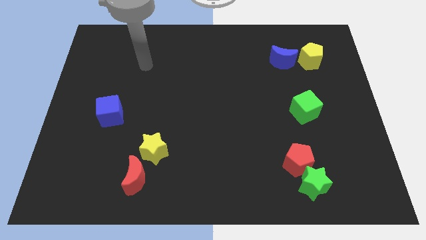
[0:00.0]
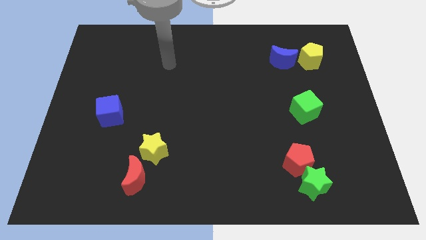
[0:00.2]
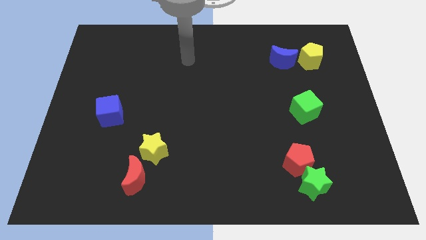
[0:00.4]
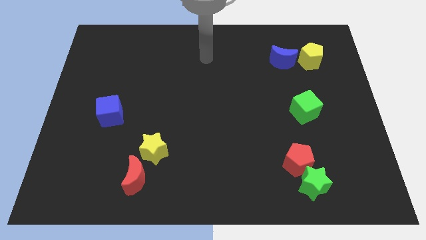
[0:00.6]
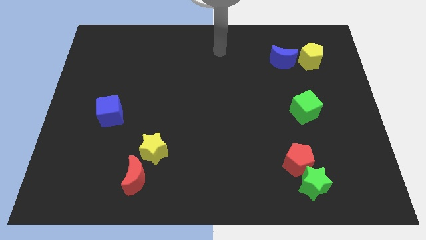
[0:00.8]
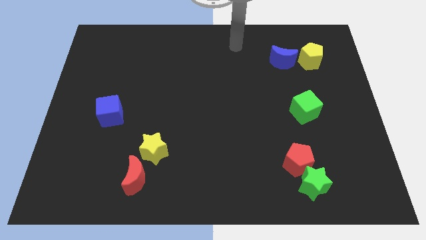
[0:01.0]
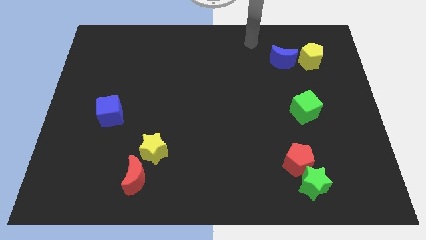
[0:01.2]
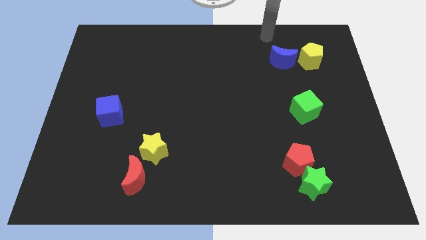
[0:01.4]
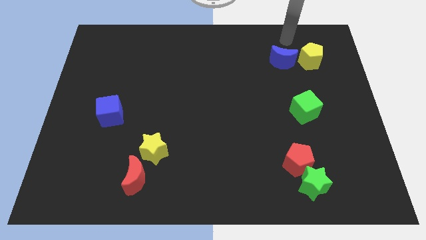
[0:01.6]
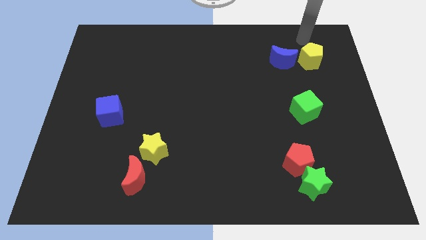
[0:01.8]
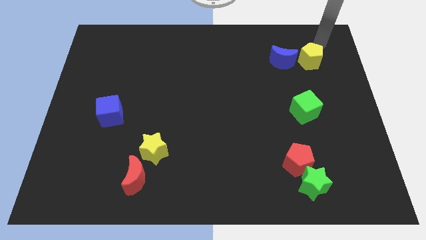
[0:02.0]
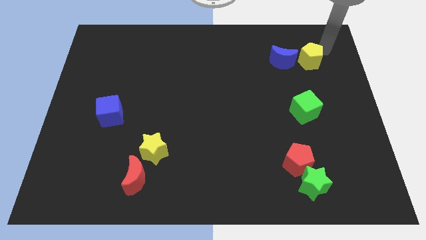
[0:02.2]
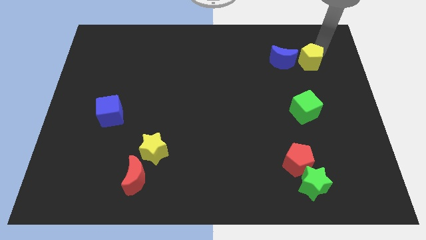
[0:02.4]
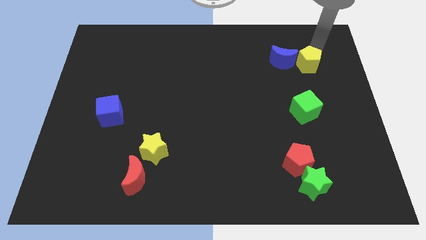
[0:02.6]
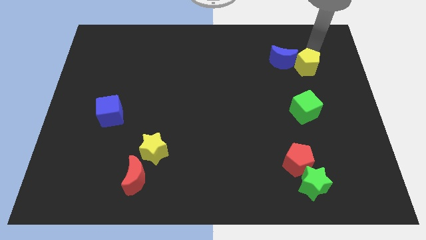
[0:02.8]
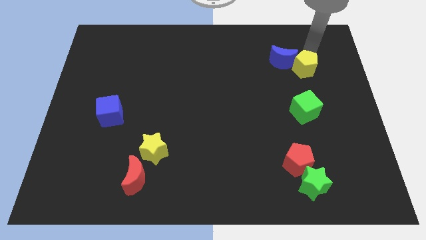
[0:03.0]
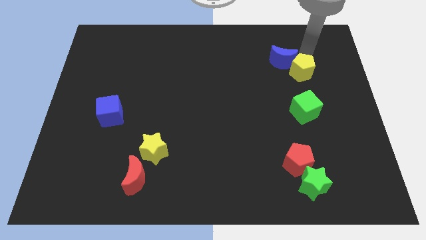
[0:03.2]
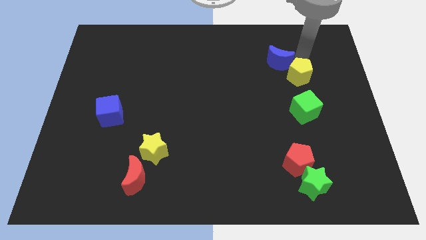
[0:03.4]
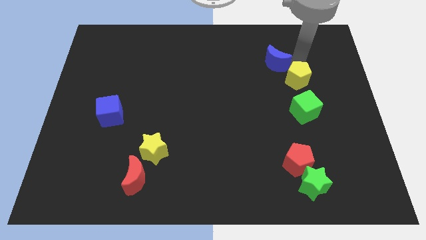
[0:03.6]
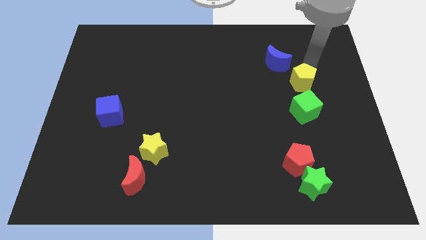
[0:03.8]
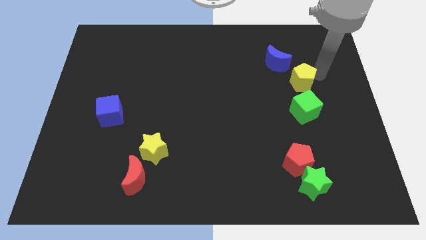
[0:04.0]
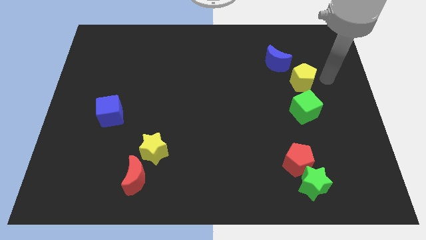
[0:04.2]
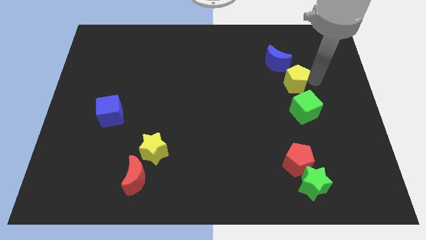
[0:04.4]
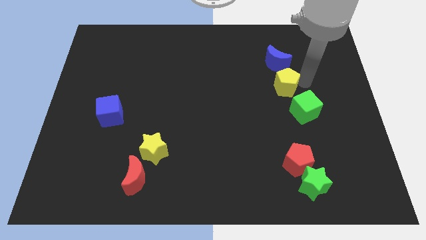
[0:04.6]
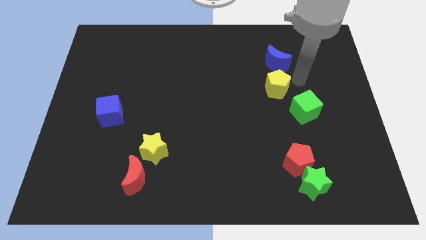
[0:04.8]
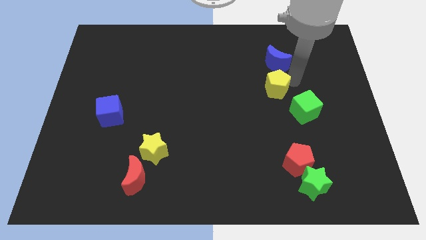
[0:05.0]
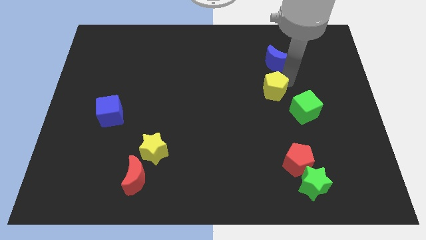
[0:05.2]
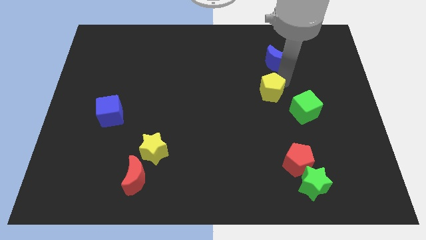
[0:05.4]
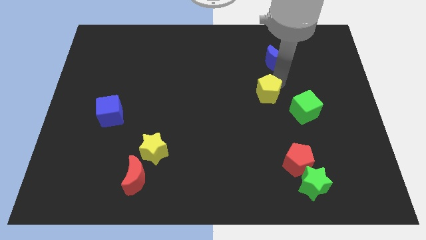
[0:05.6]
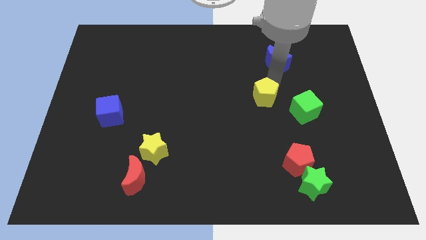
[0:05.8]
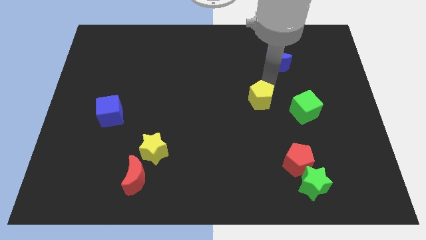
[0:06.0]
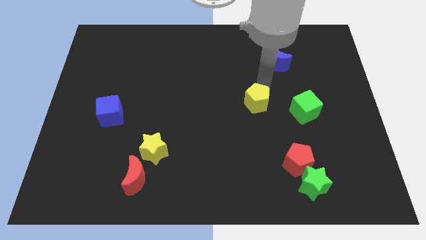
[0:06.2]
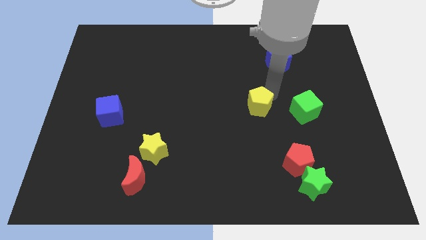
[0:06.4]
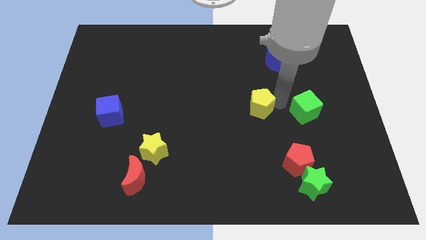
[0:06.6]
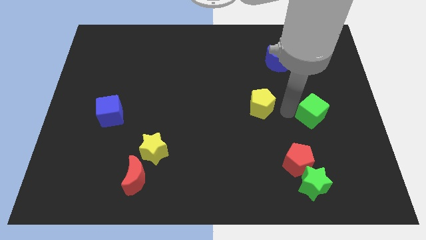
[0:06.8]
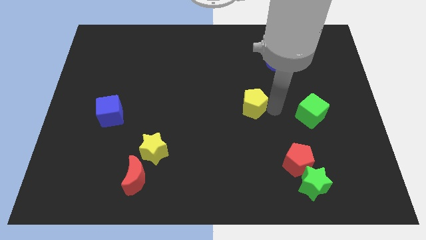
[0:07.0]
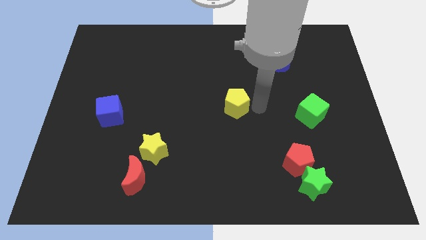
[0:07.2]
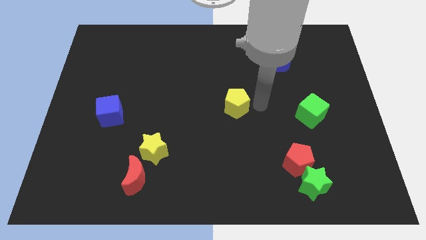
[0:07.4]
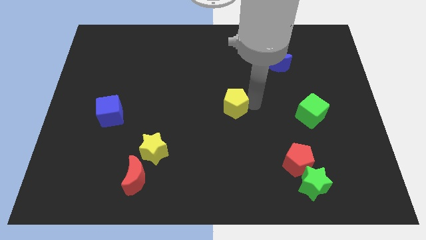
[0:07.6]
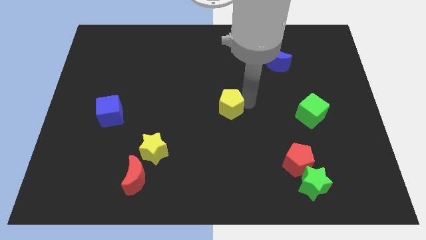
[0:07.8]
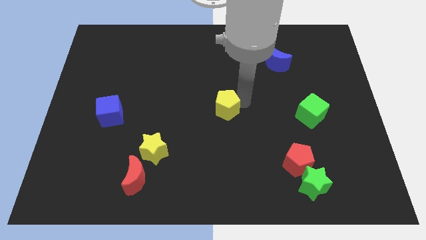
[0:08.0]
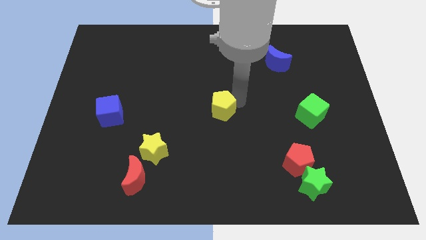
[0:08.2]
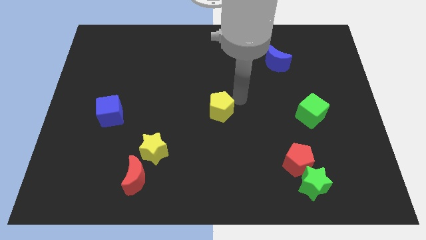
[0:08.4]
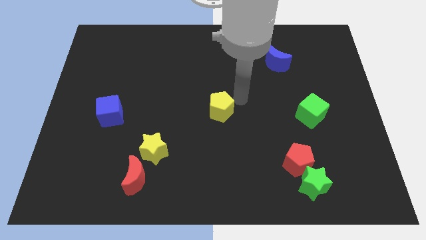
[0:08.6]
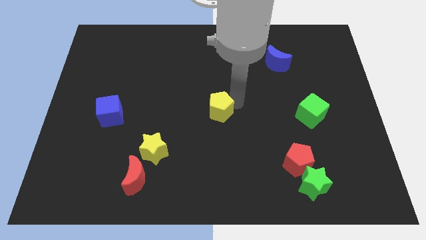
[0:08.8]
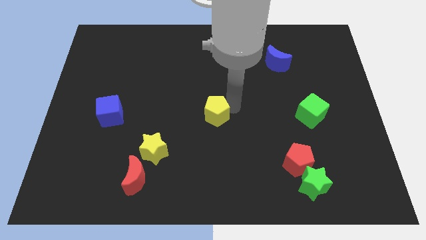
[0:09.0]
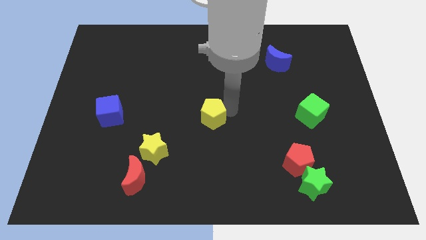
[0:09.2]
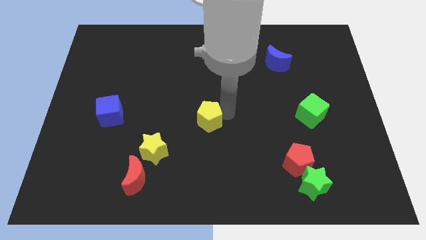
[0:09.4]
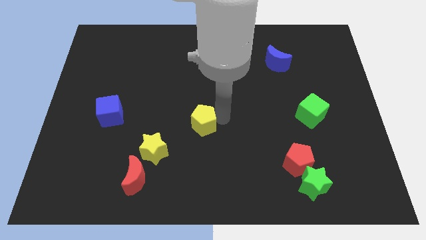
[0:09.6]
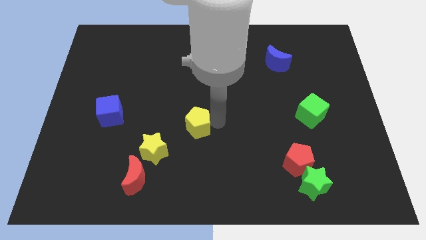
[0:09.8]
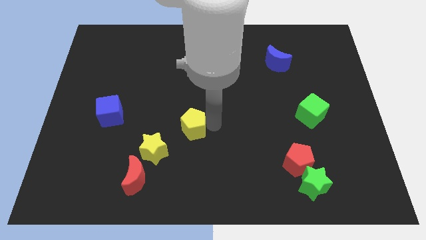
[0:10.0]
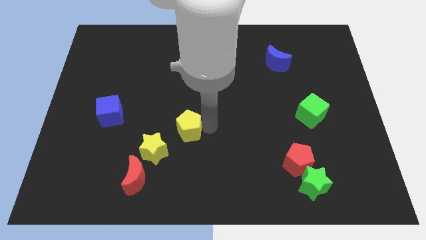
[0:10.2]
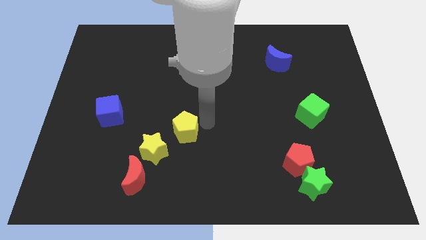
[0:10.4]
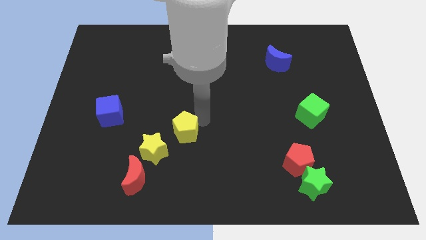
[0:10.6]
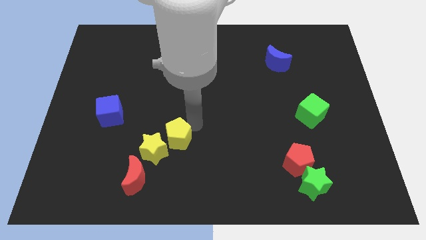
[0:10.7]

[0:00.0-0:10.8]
slide the yellow pentagon next to the yellow star

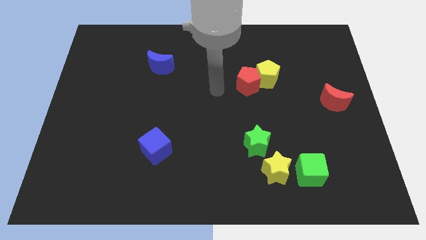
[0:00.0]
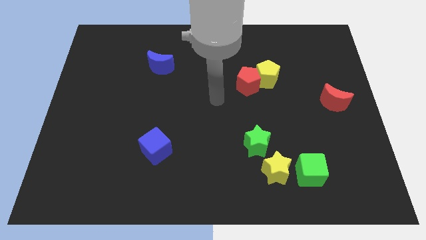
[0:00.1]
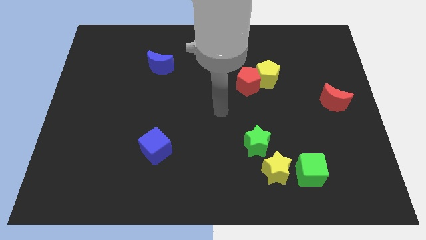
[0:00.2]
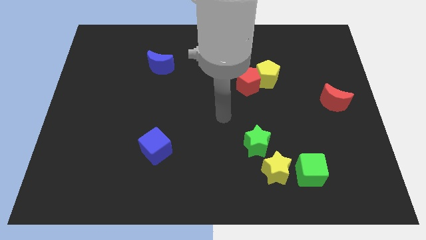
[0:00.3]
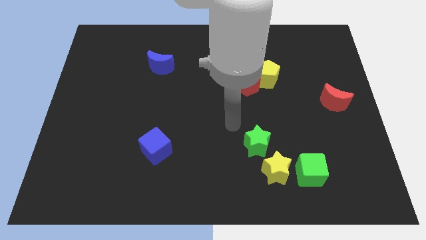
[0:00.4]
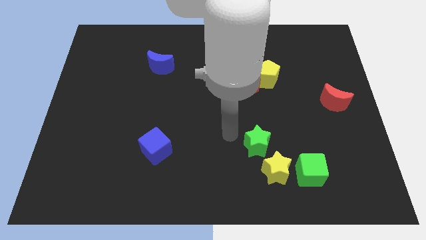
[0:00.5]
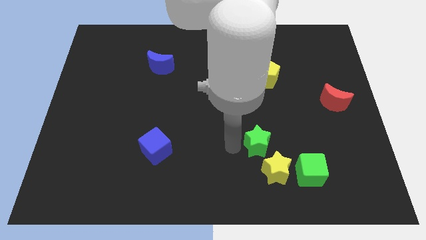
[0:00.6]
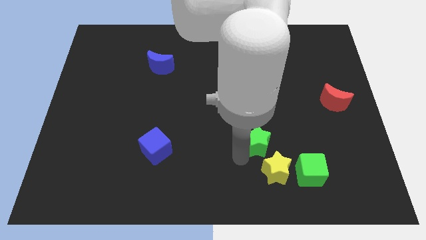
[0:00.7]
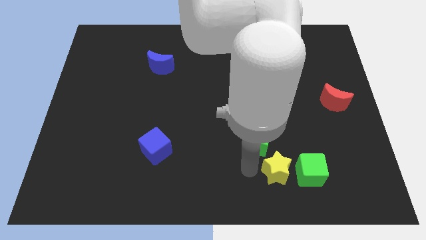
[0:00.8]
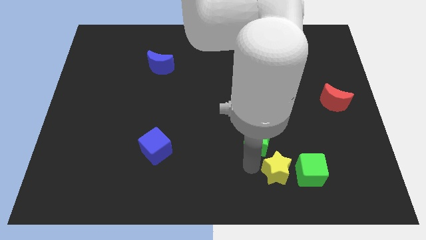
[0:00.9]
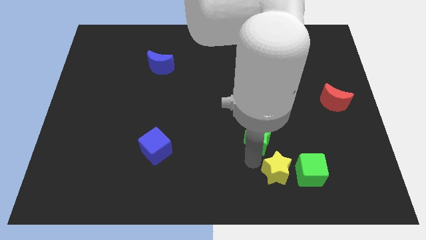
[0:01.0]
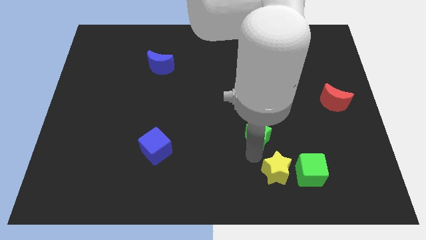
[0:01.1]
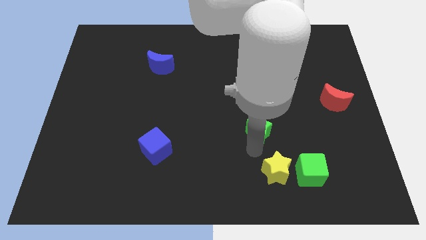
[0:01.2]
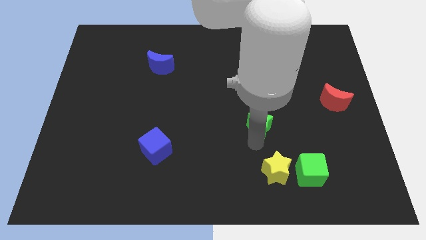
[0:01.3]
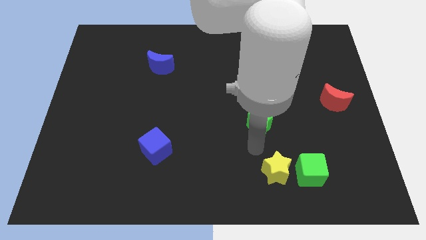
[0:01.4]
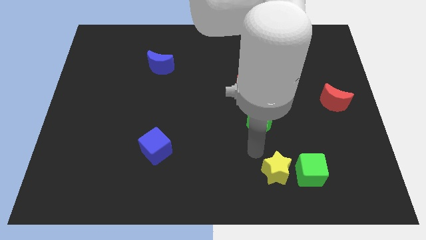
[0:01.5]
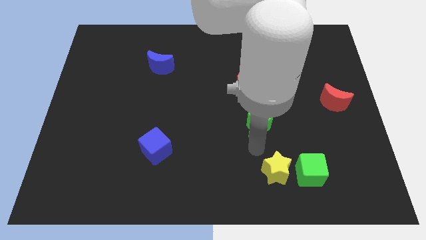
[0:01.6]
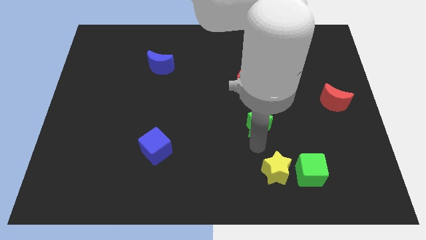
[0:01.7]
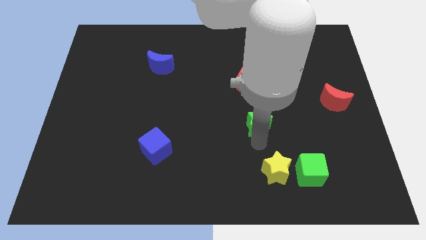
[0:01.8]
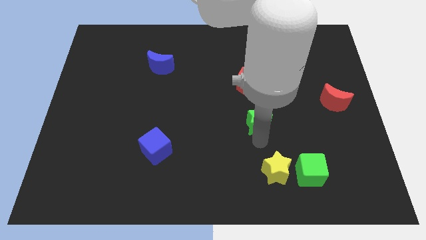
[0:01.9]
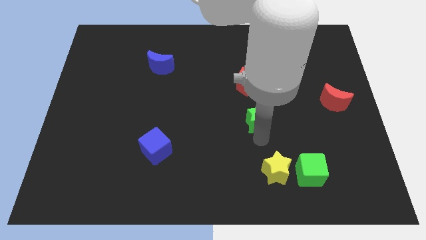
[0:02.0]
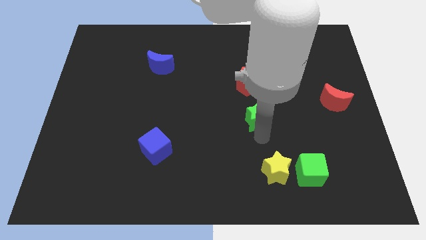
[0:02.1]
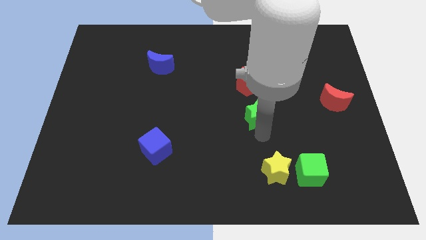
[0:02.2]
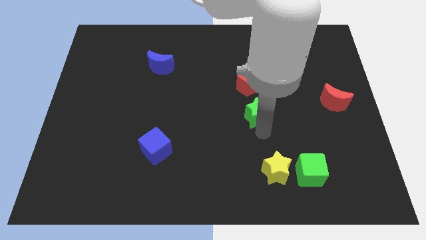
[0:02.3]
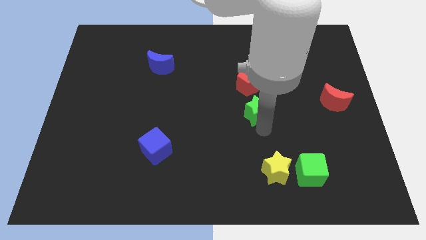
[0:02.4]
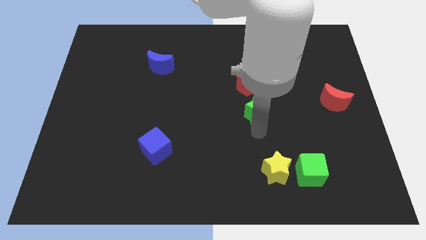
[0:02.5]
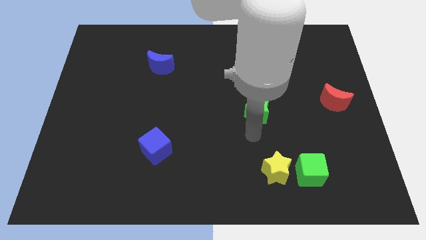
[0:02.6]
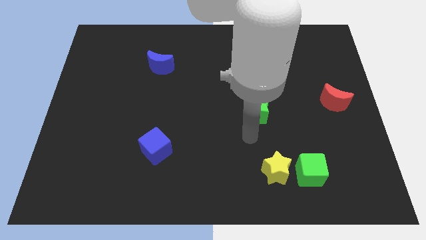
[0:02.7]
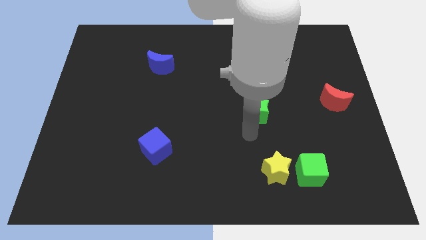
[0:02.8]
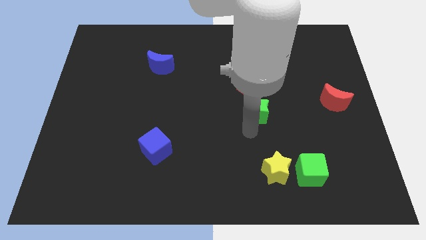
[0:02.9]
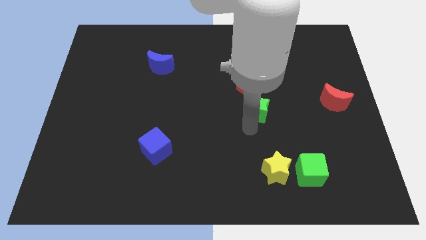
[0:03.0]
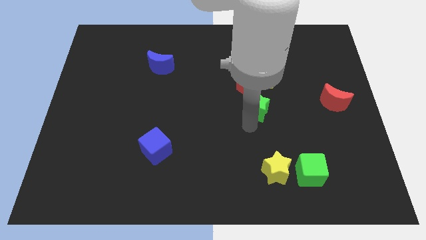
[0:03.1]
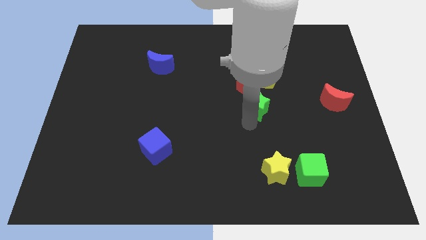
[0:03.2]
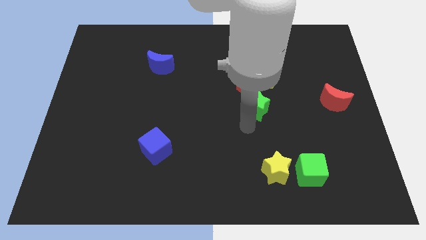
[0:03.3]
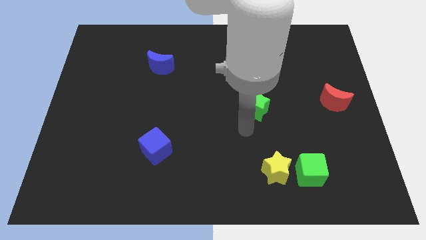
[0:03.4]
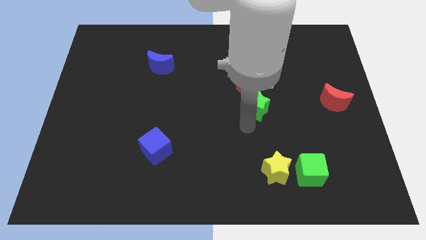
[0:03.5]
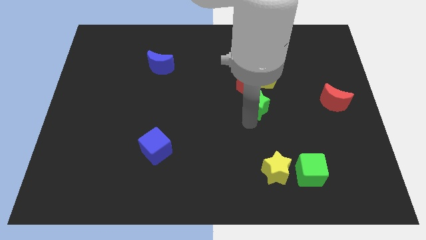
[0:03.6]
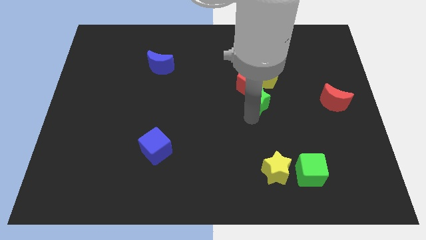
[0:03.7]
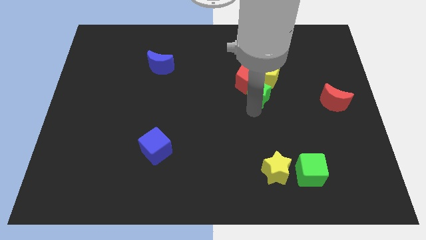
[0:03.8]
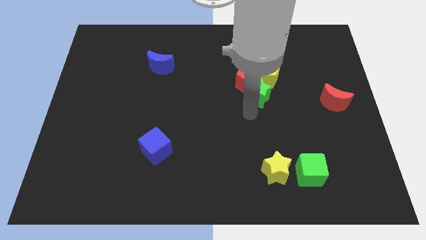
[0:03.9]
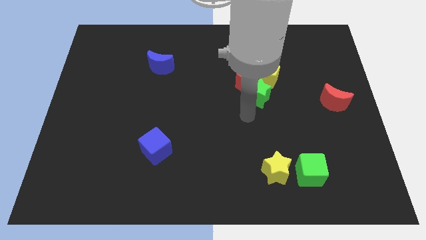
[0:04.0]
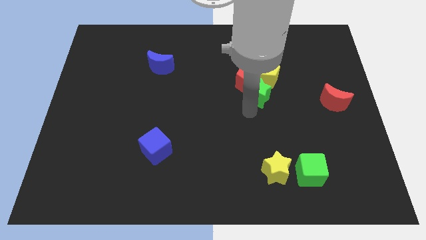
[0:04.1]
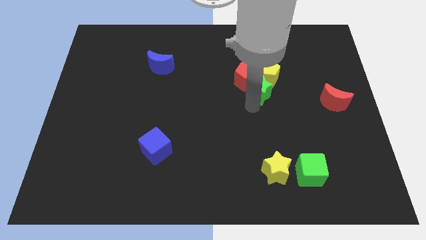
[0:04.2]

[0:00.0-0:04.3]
slide the green star to the yellow pentagon
